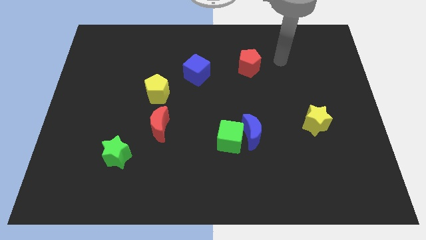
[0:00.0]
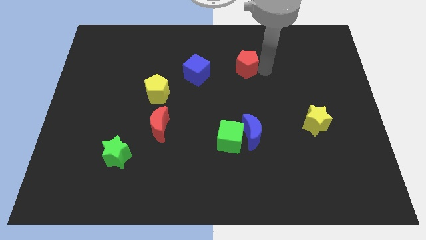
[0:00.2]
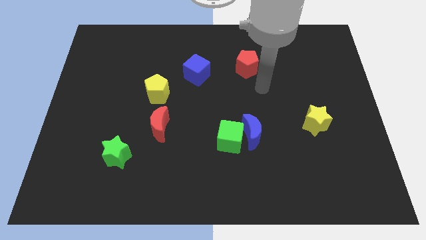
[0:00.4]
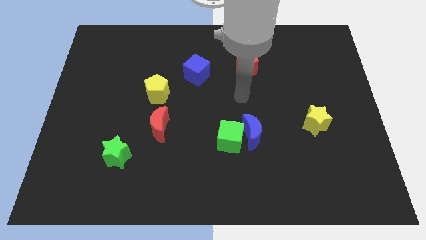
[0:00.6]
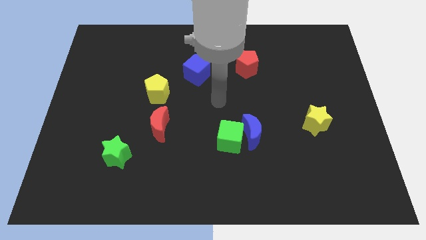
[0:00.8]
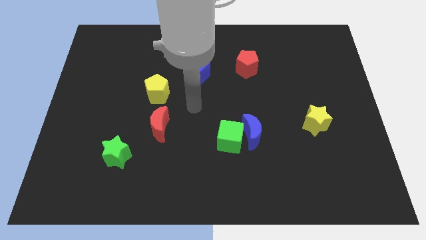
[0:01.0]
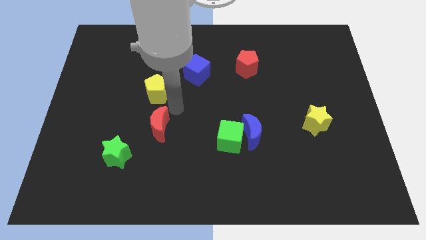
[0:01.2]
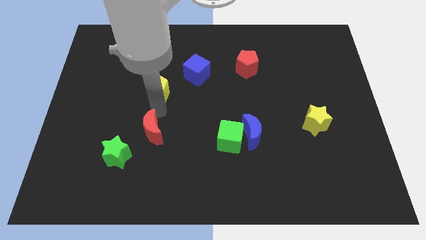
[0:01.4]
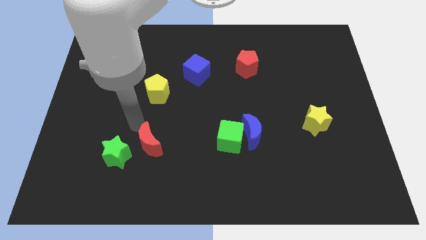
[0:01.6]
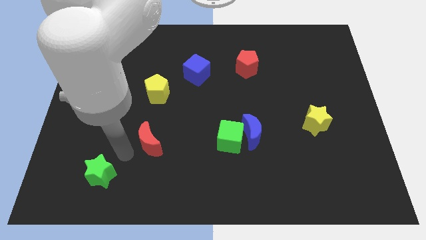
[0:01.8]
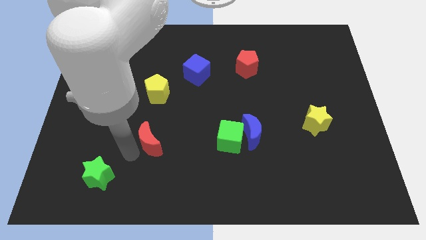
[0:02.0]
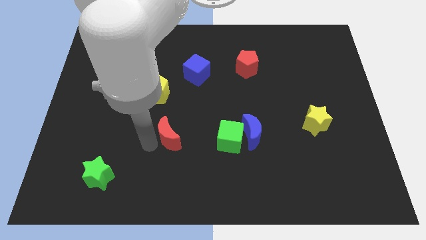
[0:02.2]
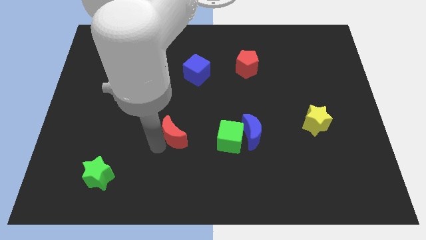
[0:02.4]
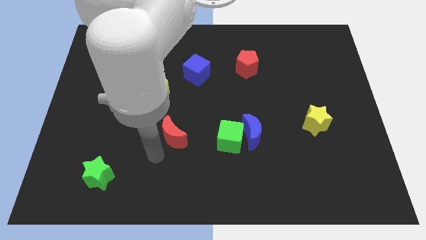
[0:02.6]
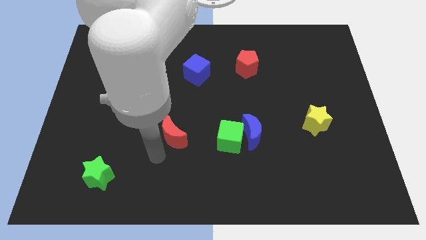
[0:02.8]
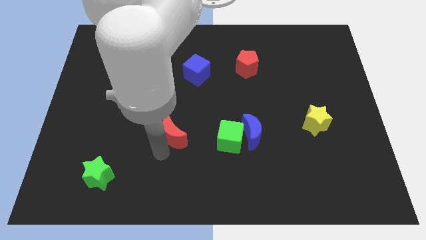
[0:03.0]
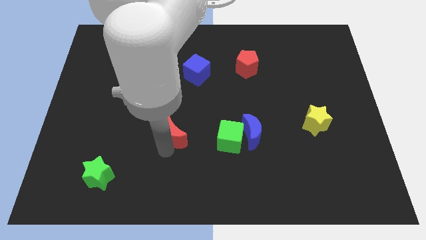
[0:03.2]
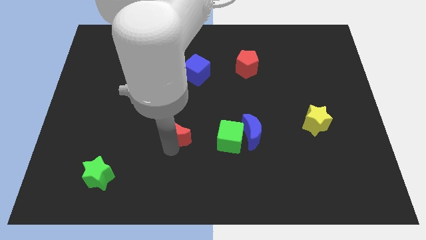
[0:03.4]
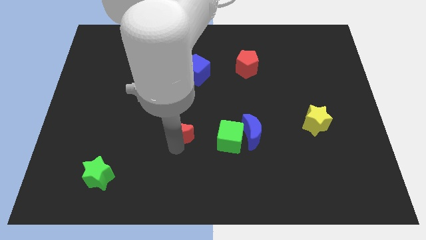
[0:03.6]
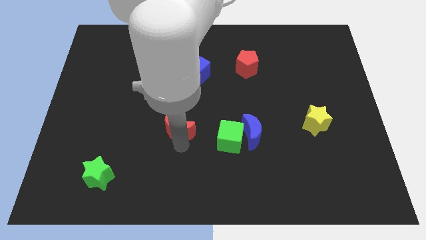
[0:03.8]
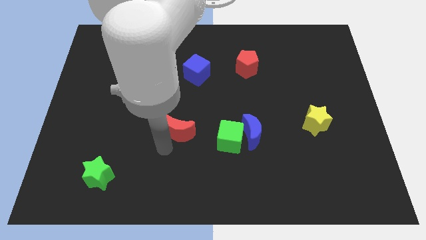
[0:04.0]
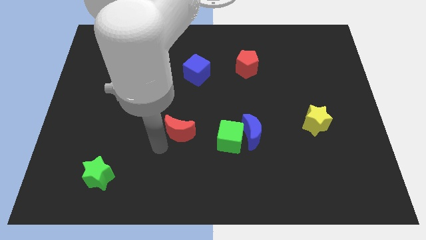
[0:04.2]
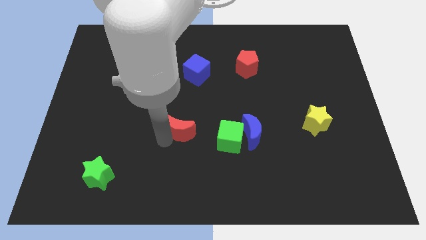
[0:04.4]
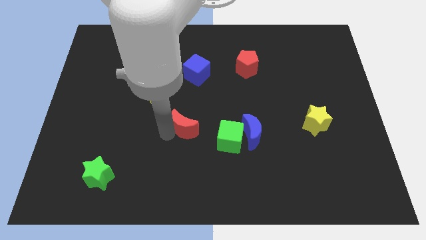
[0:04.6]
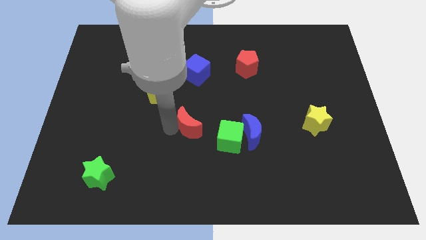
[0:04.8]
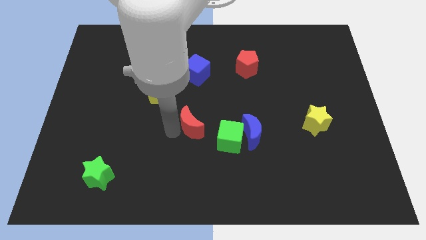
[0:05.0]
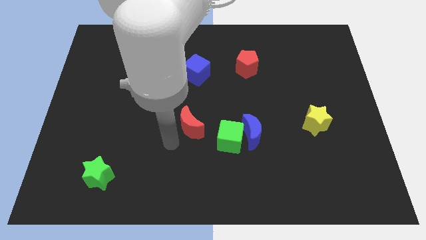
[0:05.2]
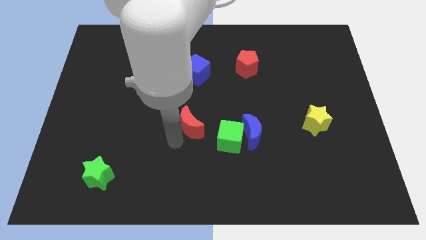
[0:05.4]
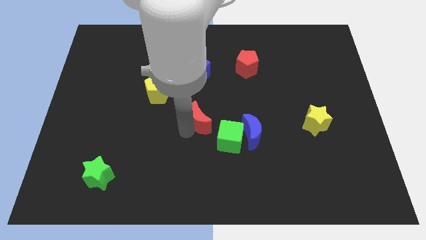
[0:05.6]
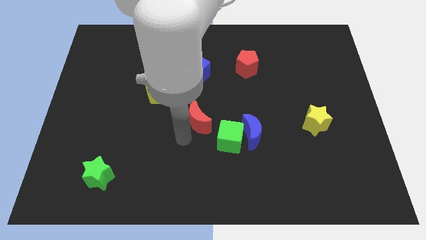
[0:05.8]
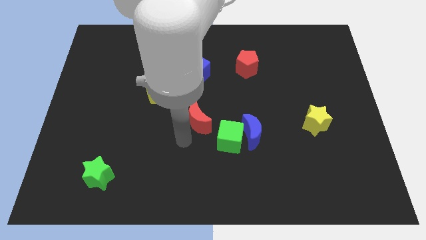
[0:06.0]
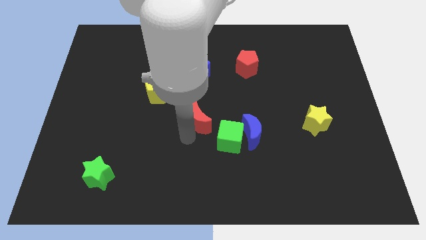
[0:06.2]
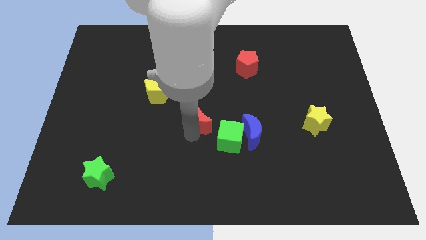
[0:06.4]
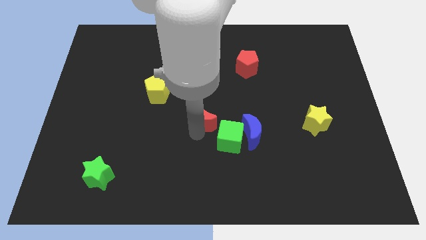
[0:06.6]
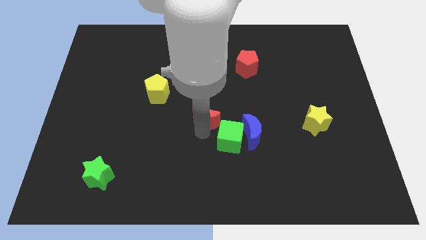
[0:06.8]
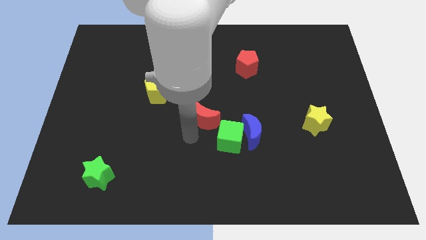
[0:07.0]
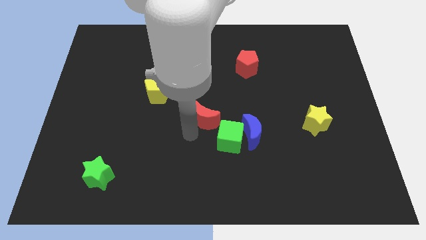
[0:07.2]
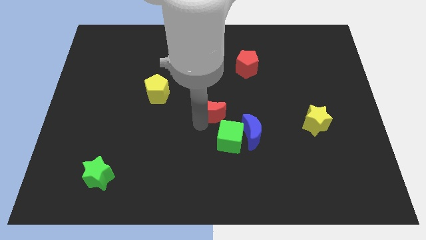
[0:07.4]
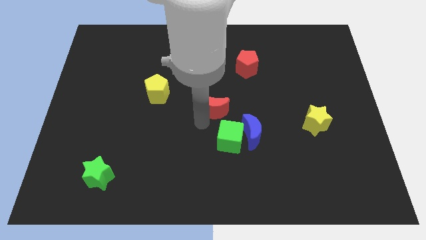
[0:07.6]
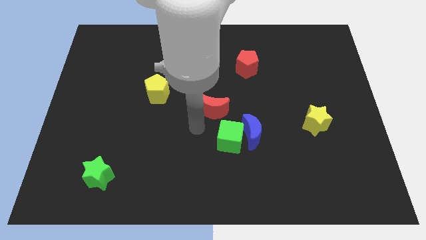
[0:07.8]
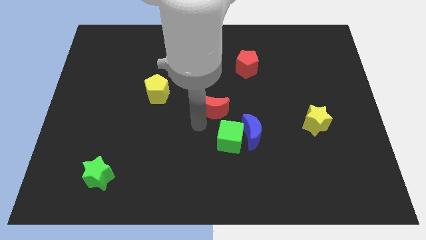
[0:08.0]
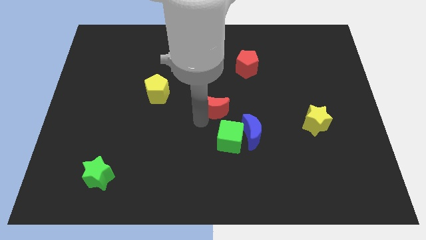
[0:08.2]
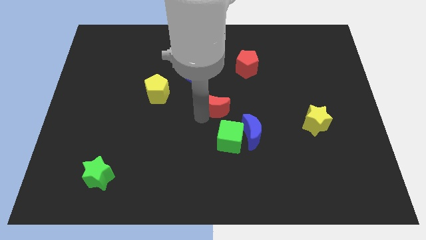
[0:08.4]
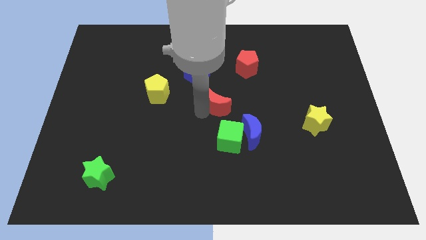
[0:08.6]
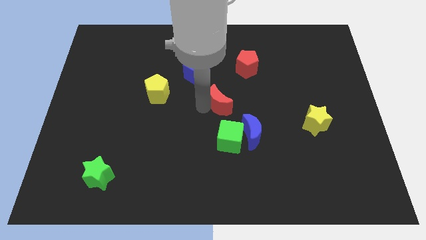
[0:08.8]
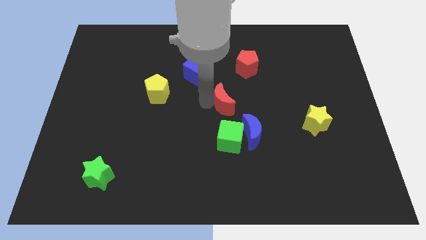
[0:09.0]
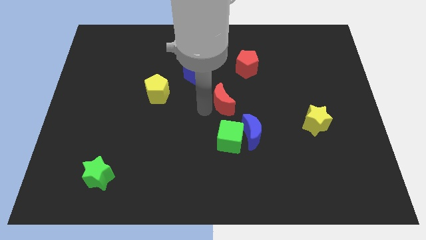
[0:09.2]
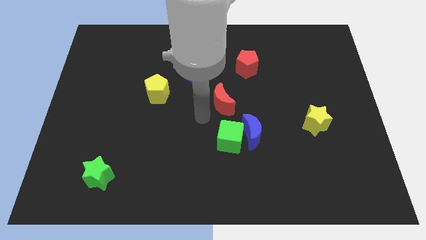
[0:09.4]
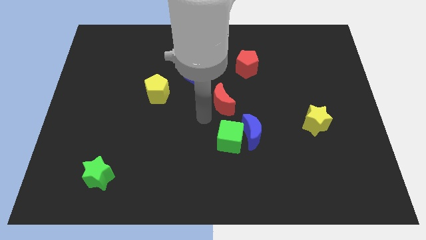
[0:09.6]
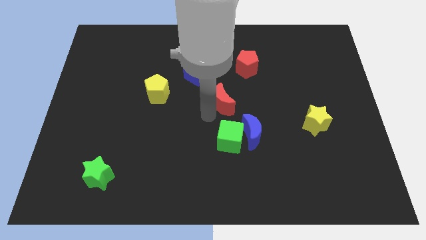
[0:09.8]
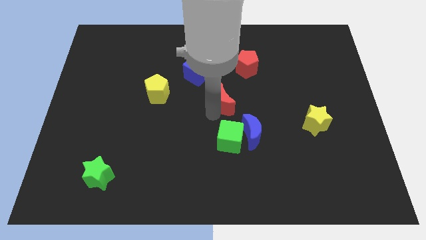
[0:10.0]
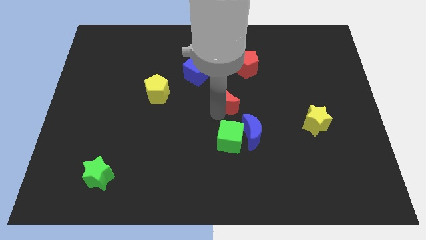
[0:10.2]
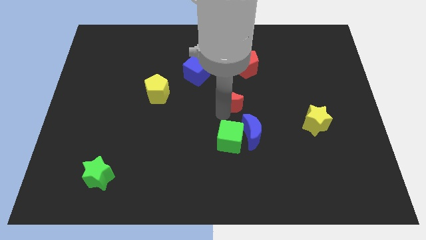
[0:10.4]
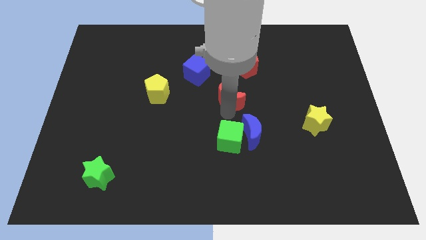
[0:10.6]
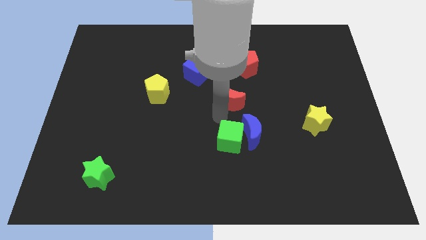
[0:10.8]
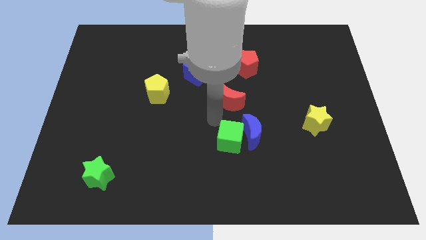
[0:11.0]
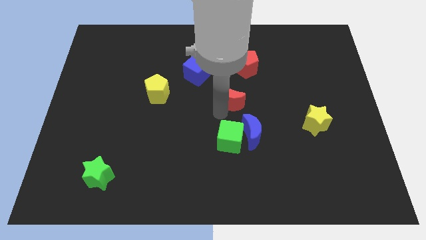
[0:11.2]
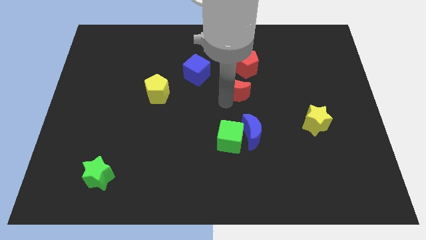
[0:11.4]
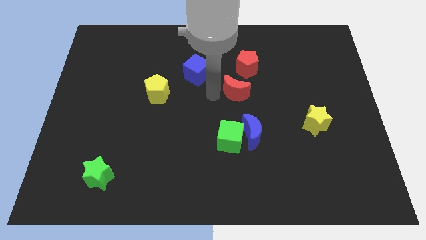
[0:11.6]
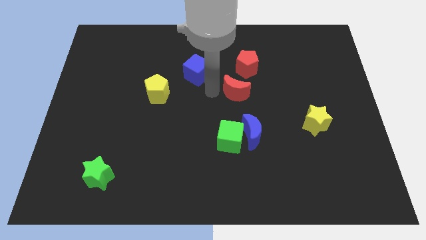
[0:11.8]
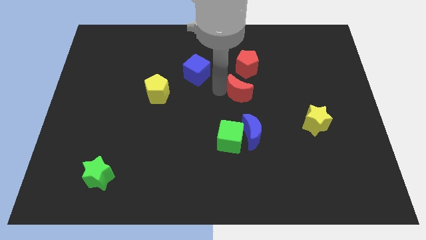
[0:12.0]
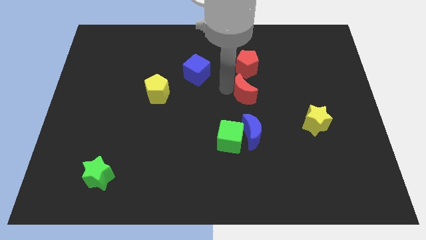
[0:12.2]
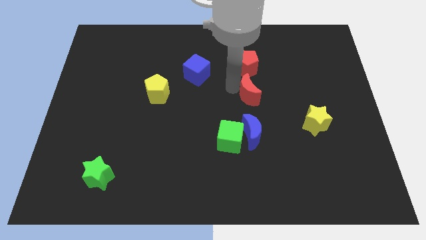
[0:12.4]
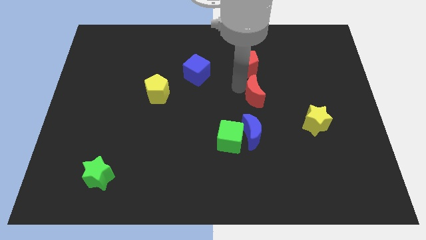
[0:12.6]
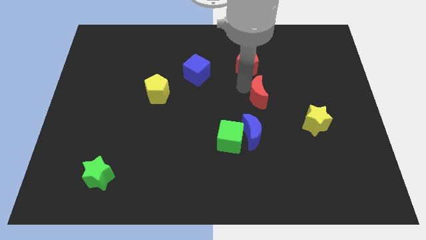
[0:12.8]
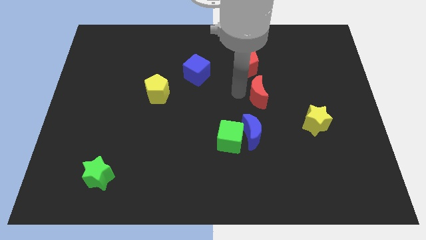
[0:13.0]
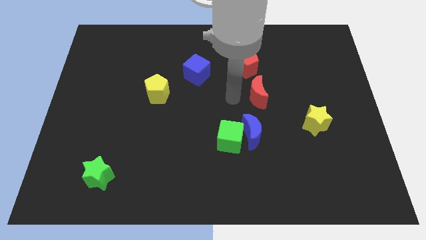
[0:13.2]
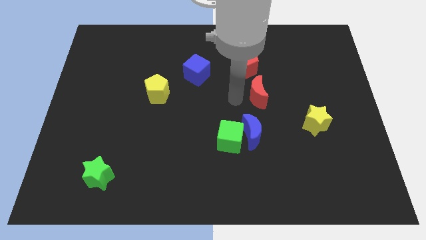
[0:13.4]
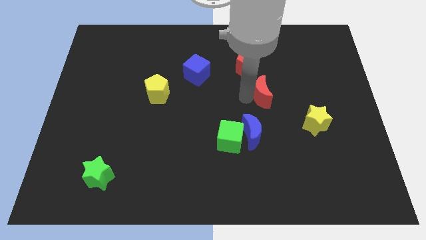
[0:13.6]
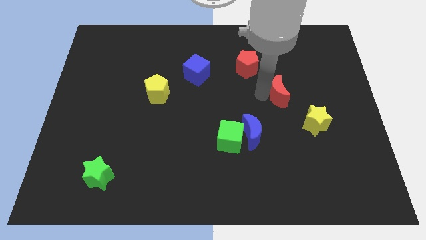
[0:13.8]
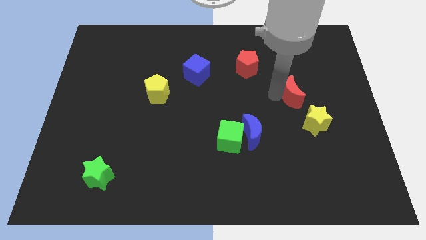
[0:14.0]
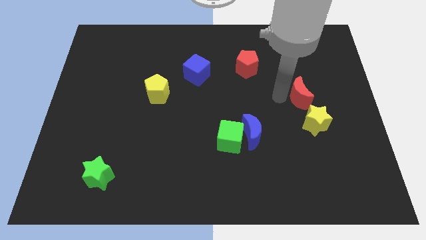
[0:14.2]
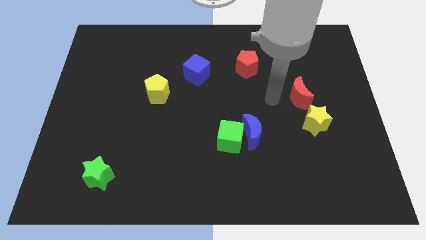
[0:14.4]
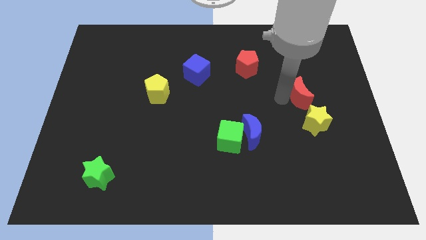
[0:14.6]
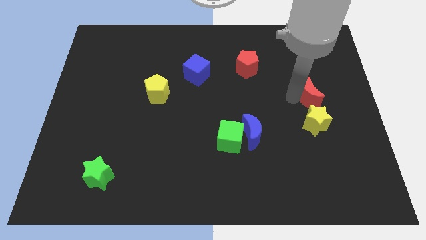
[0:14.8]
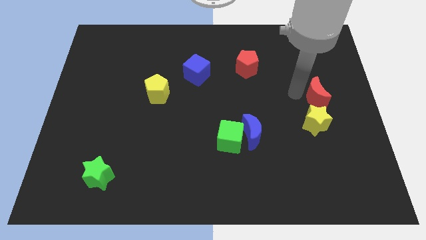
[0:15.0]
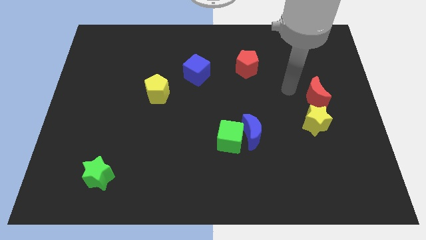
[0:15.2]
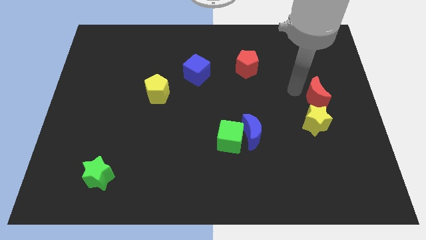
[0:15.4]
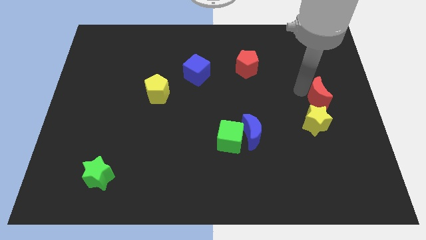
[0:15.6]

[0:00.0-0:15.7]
put the red moon to the center right
